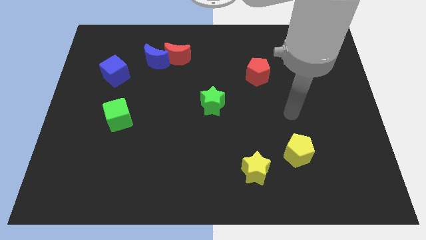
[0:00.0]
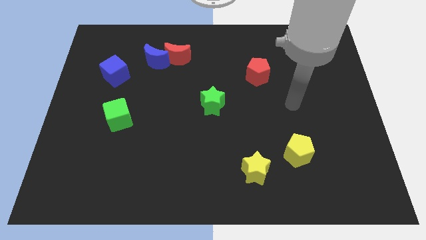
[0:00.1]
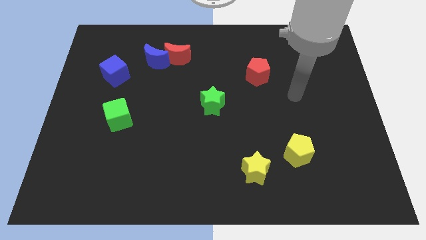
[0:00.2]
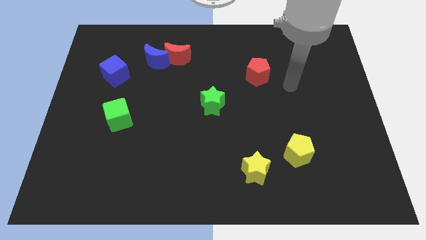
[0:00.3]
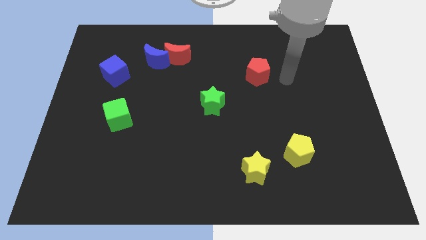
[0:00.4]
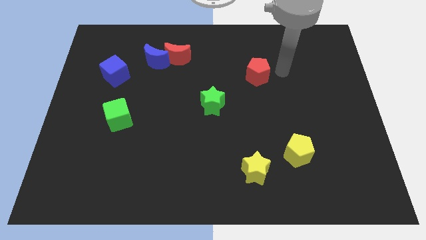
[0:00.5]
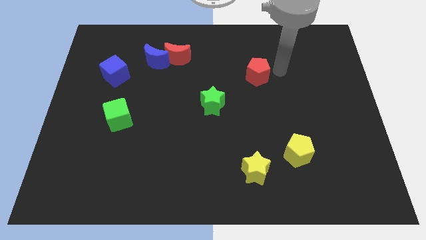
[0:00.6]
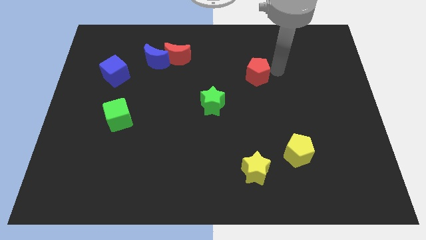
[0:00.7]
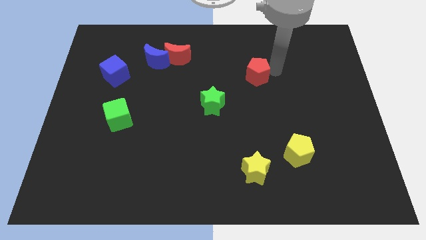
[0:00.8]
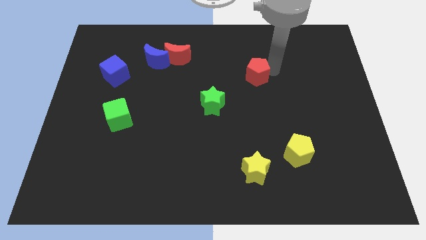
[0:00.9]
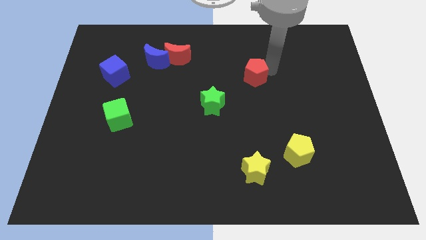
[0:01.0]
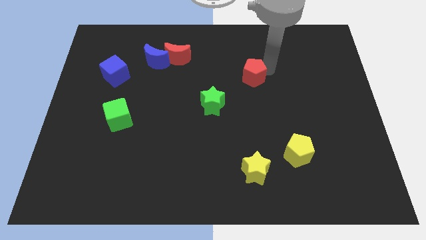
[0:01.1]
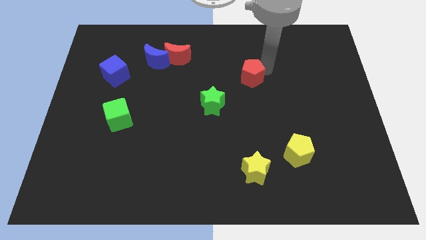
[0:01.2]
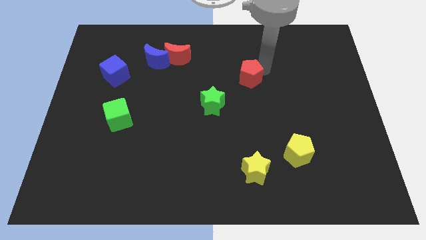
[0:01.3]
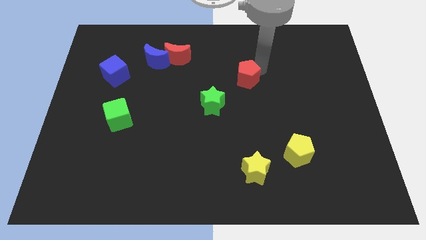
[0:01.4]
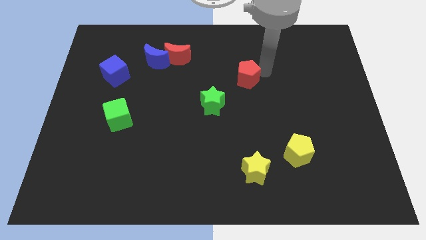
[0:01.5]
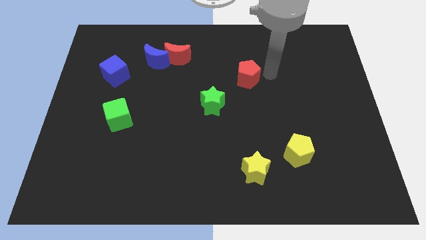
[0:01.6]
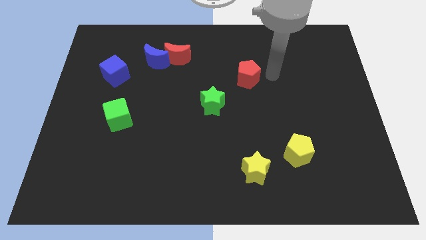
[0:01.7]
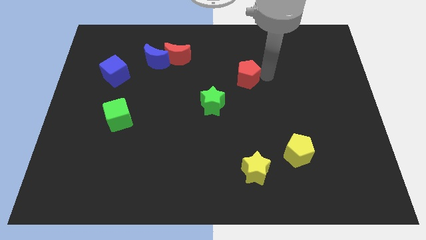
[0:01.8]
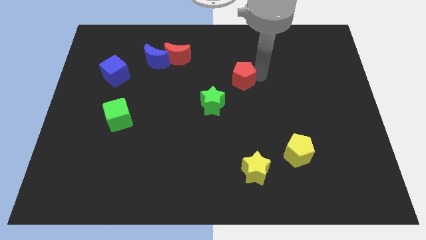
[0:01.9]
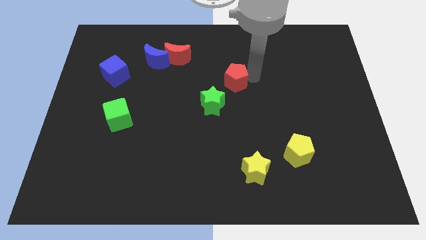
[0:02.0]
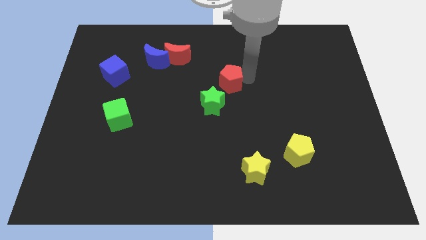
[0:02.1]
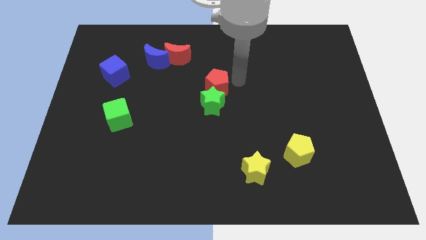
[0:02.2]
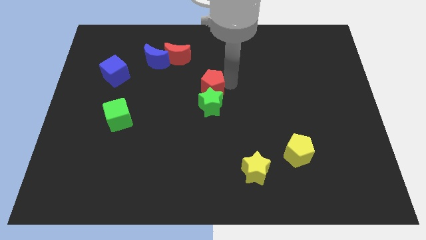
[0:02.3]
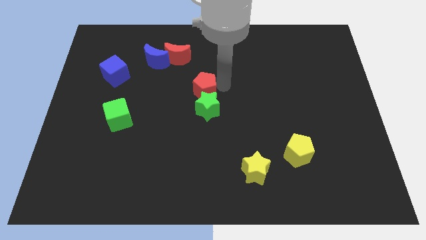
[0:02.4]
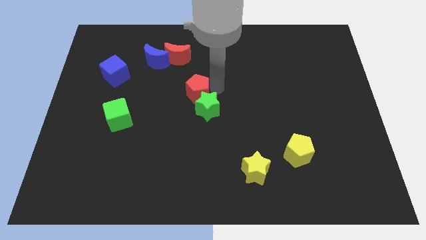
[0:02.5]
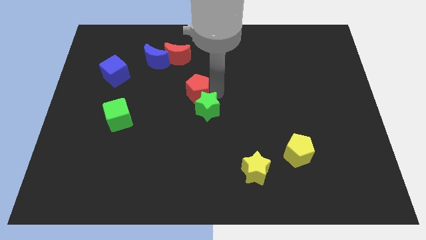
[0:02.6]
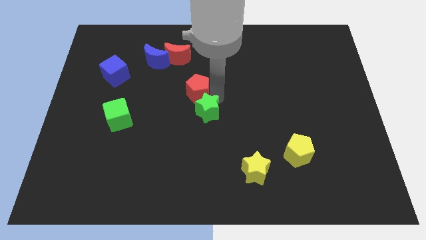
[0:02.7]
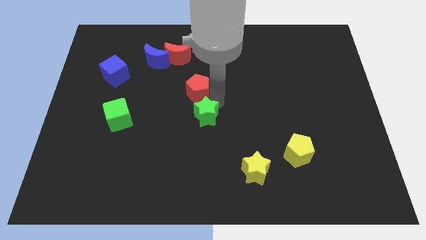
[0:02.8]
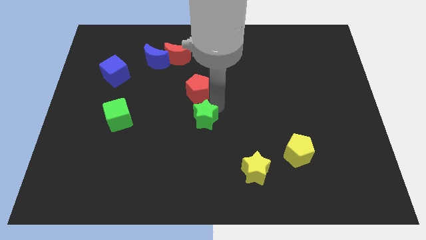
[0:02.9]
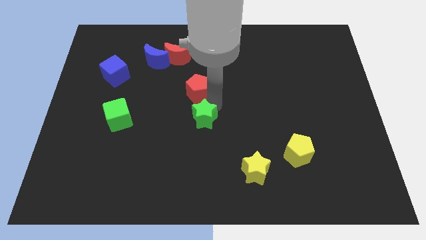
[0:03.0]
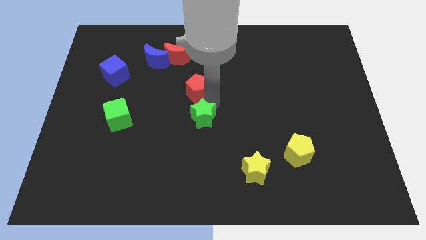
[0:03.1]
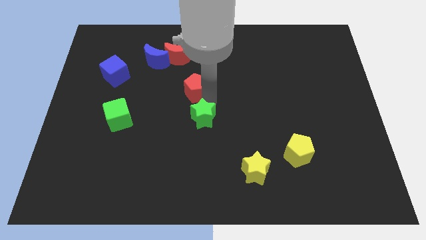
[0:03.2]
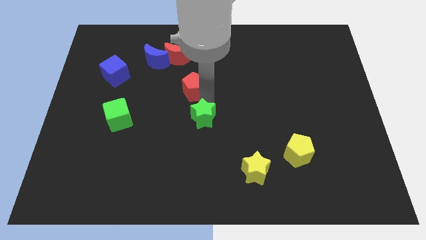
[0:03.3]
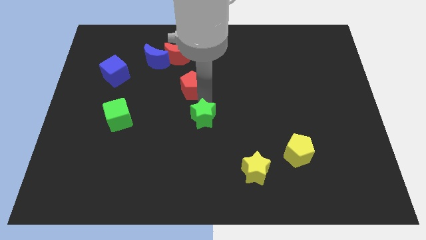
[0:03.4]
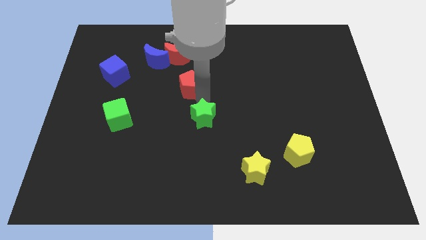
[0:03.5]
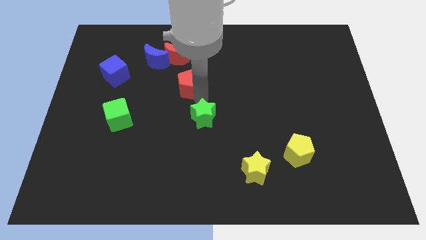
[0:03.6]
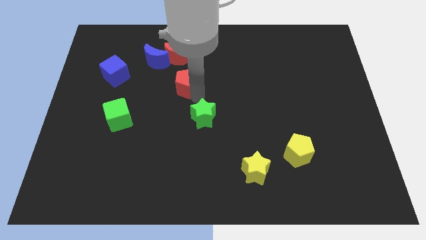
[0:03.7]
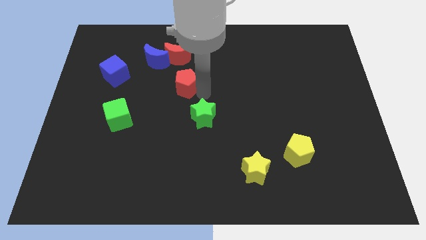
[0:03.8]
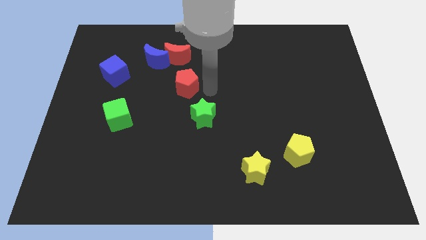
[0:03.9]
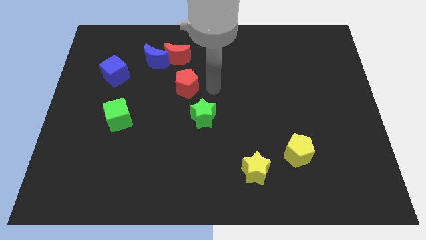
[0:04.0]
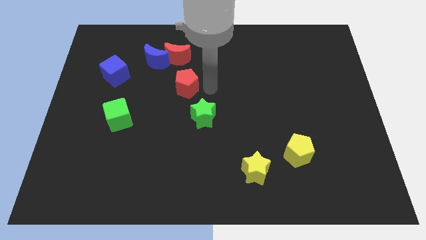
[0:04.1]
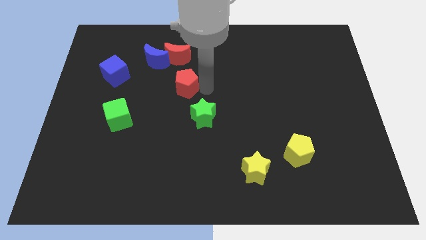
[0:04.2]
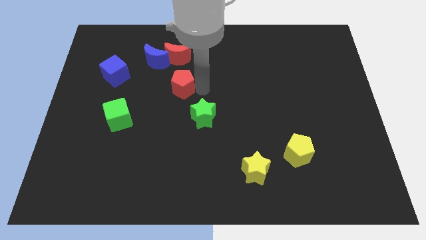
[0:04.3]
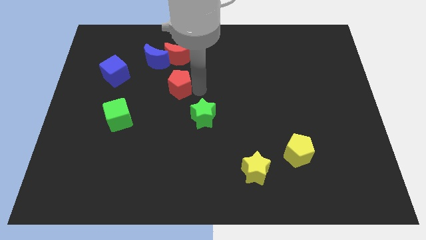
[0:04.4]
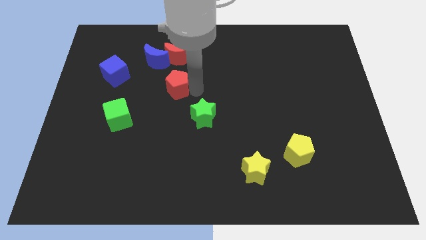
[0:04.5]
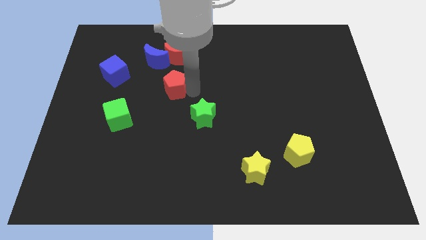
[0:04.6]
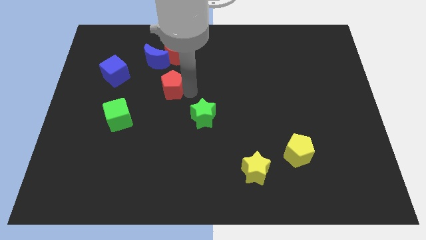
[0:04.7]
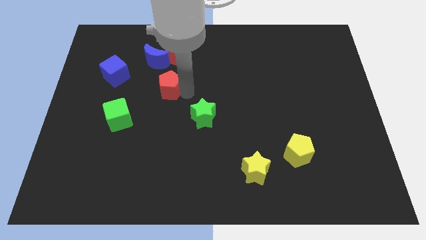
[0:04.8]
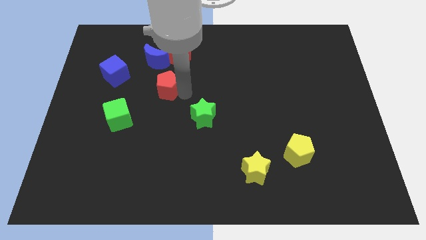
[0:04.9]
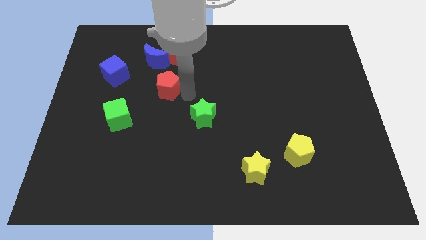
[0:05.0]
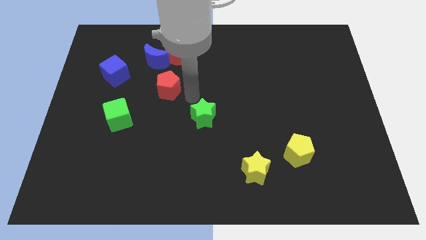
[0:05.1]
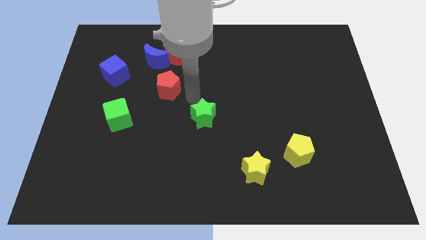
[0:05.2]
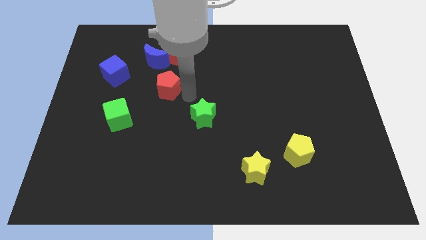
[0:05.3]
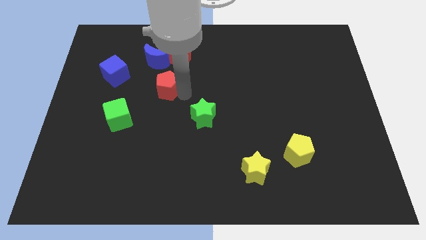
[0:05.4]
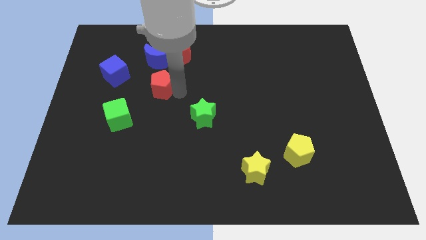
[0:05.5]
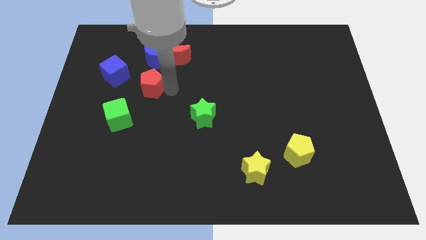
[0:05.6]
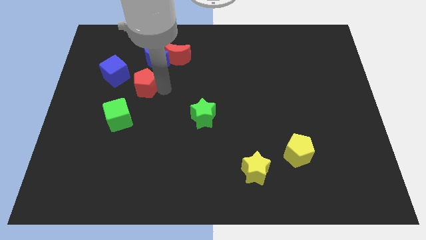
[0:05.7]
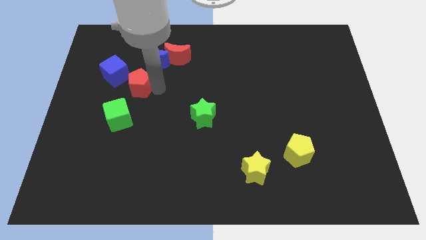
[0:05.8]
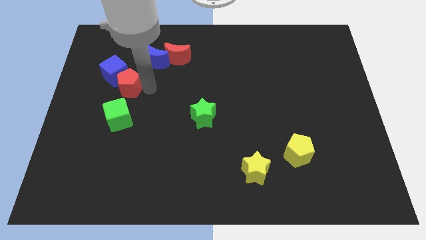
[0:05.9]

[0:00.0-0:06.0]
move the red pentagon to the blue cube
